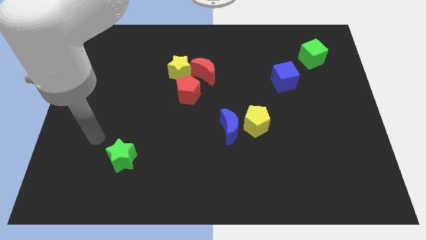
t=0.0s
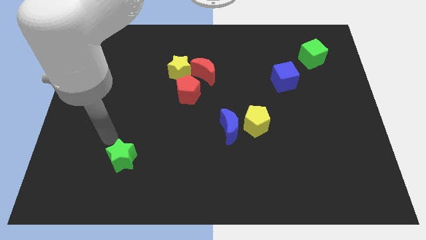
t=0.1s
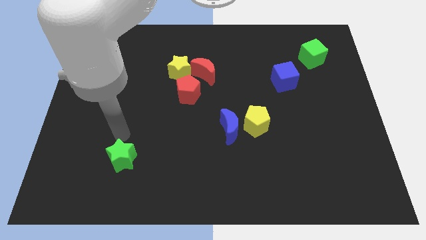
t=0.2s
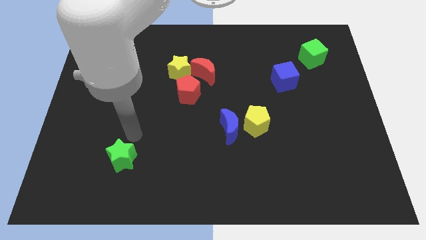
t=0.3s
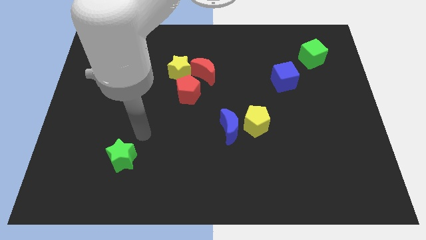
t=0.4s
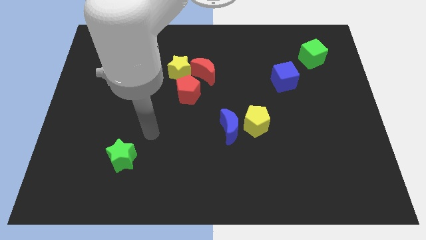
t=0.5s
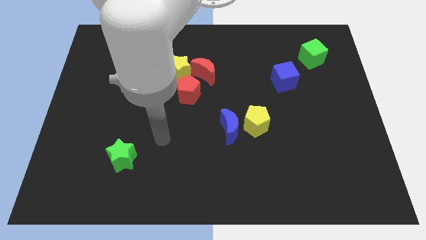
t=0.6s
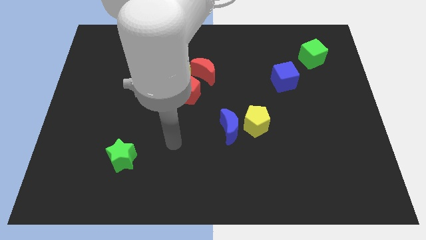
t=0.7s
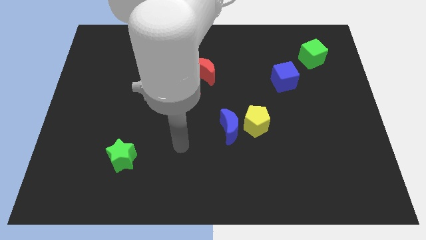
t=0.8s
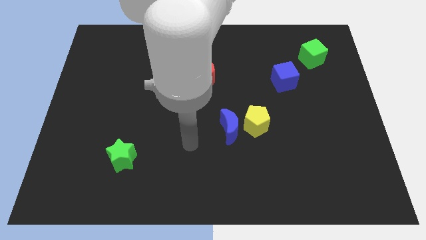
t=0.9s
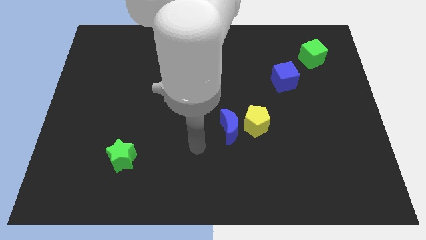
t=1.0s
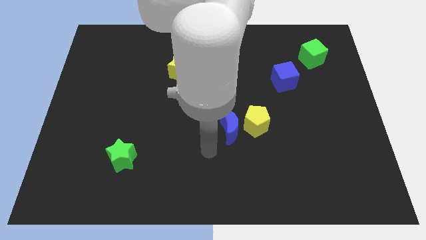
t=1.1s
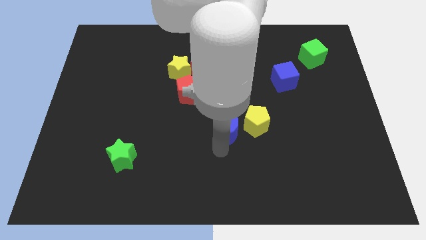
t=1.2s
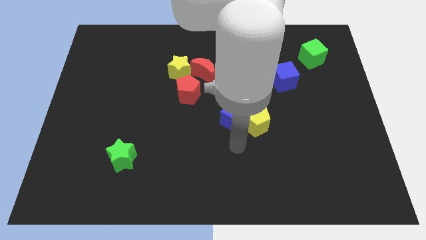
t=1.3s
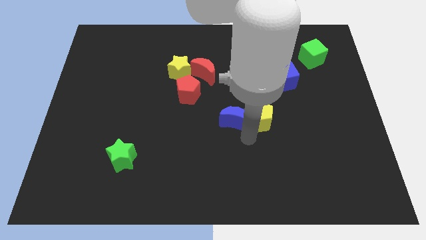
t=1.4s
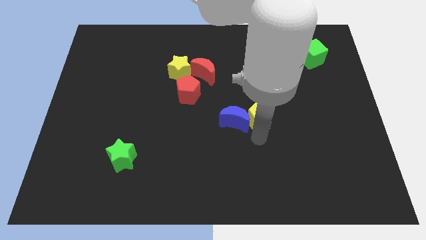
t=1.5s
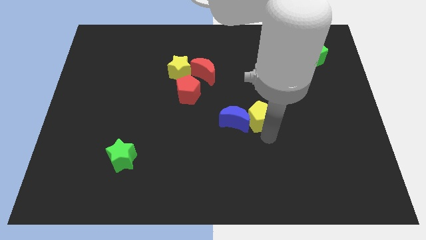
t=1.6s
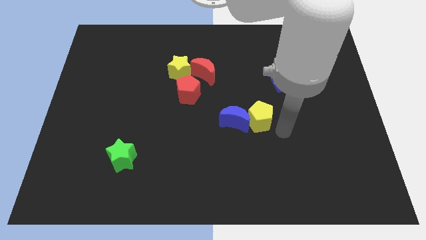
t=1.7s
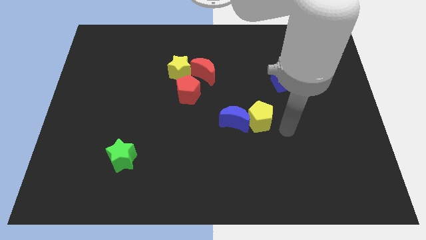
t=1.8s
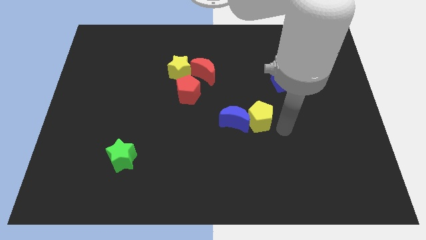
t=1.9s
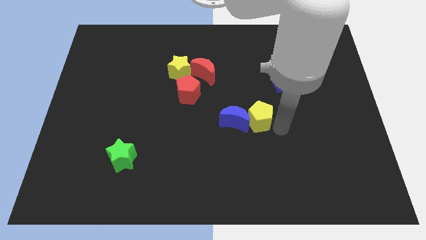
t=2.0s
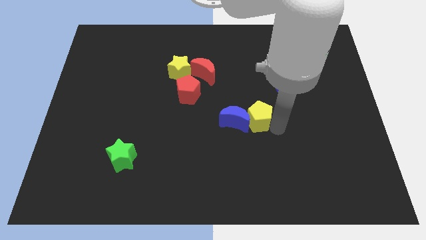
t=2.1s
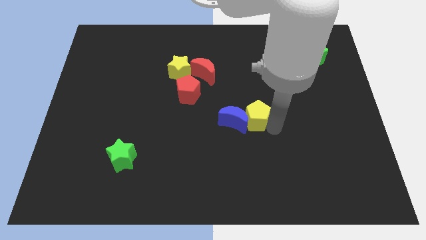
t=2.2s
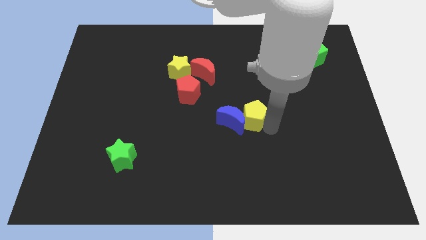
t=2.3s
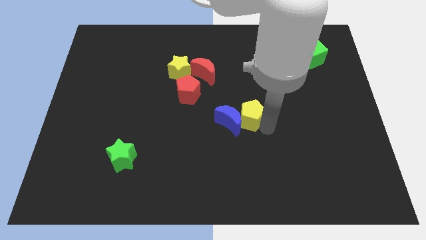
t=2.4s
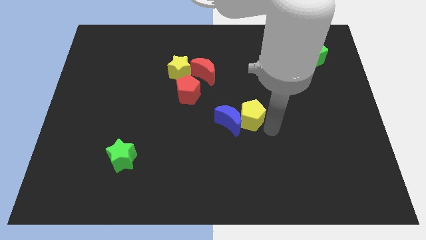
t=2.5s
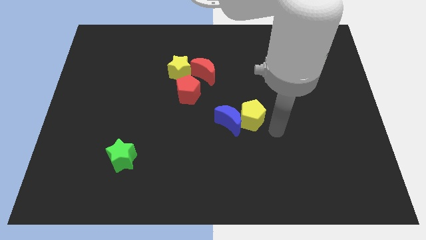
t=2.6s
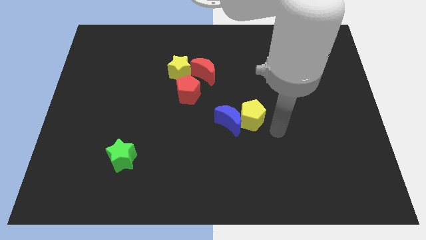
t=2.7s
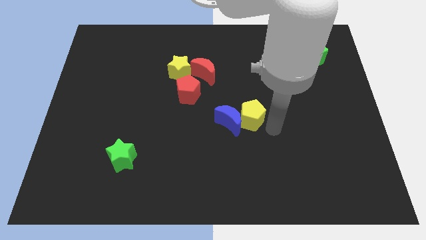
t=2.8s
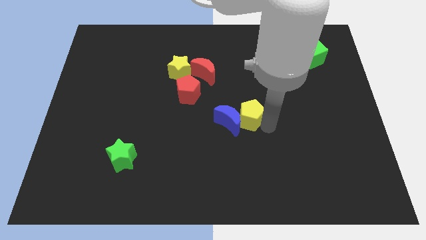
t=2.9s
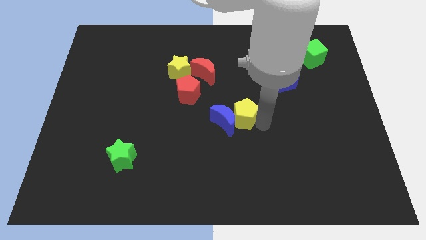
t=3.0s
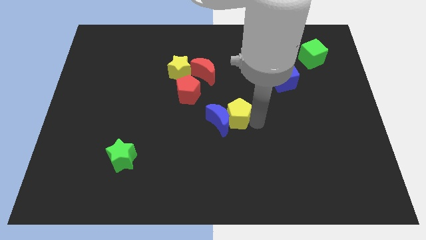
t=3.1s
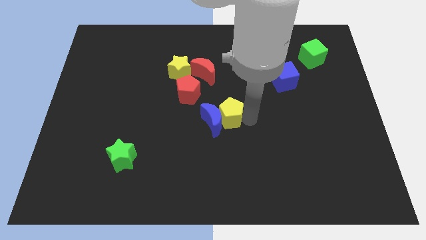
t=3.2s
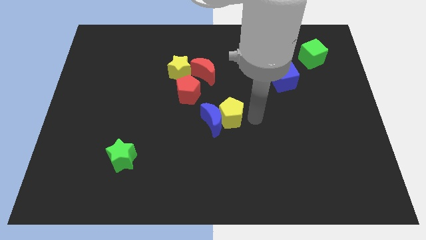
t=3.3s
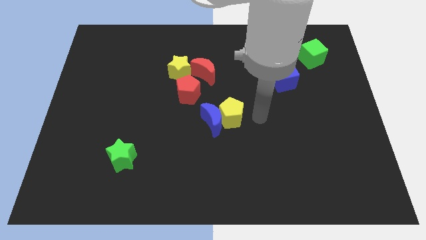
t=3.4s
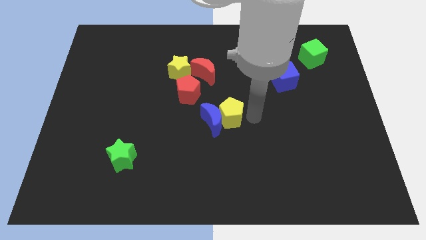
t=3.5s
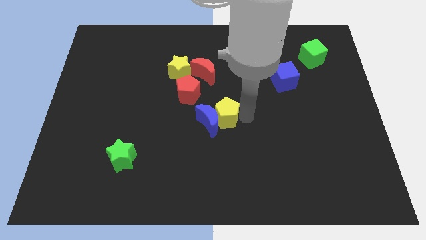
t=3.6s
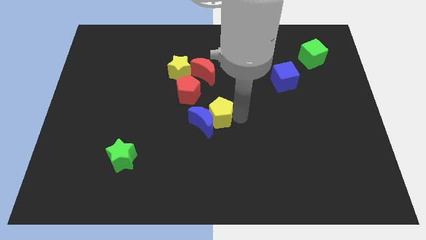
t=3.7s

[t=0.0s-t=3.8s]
move the yellow pentagon left somewhat

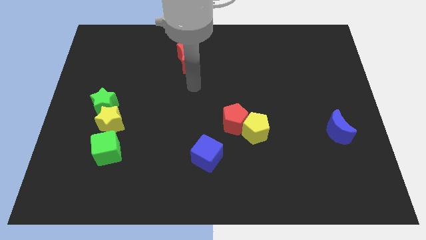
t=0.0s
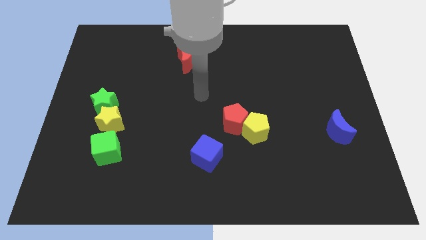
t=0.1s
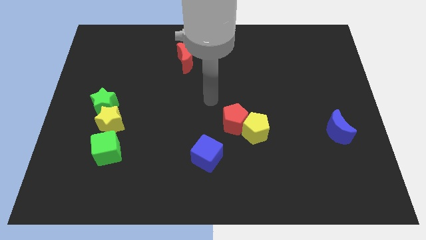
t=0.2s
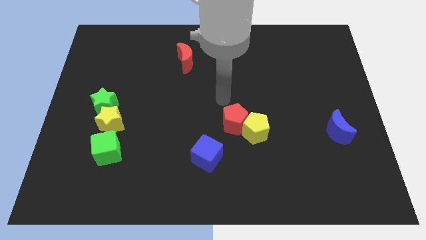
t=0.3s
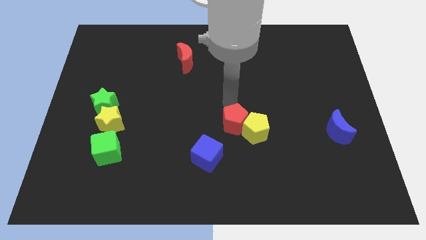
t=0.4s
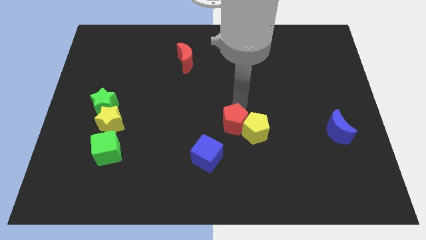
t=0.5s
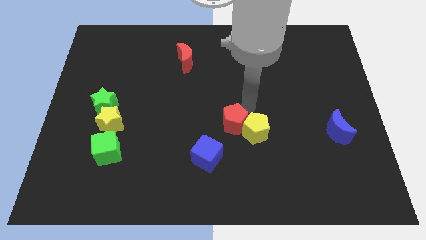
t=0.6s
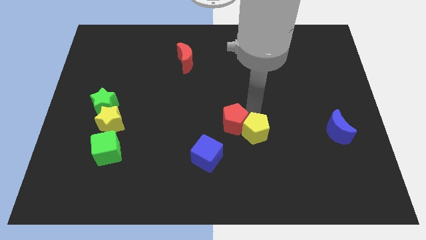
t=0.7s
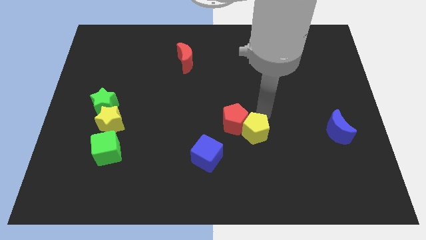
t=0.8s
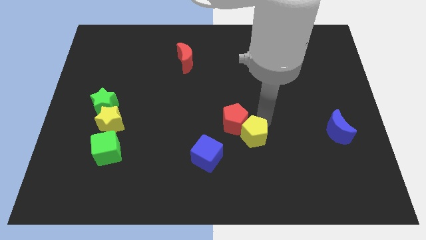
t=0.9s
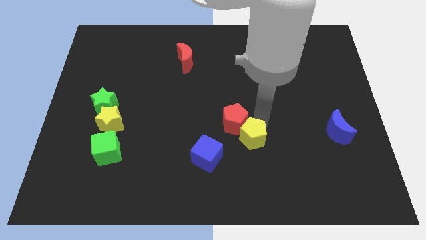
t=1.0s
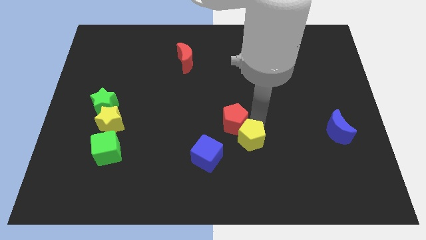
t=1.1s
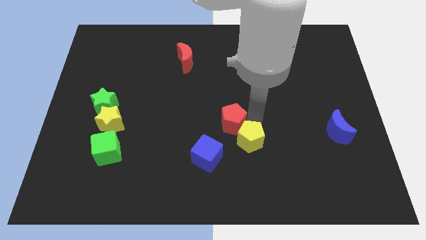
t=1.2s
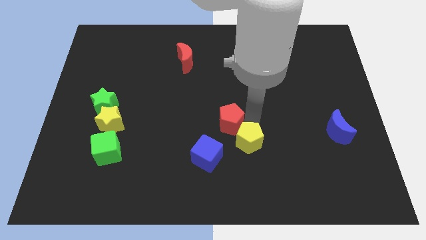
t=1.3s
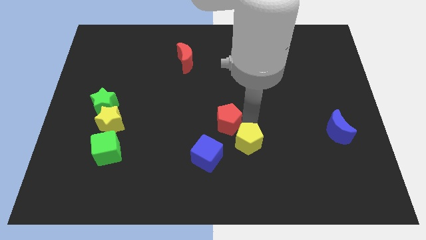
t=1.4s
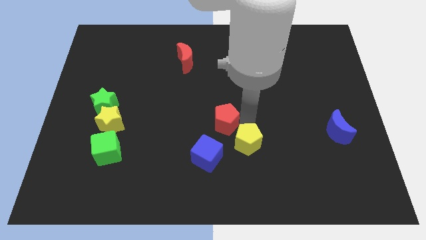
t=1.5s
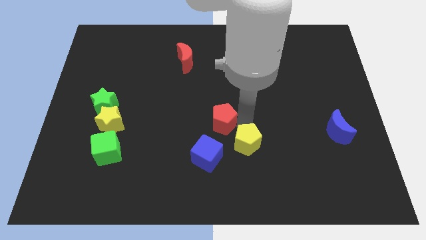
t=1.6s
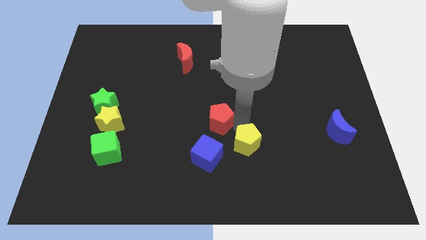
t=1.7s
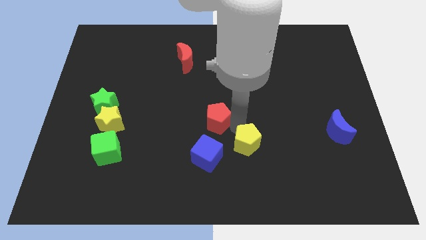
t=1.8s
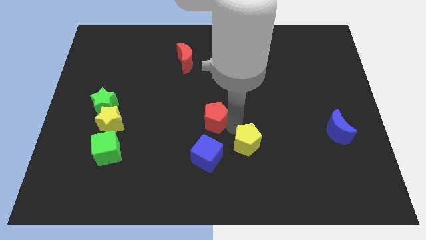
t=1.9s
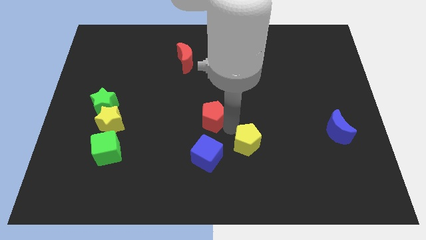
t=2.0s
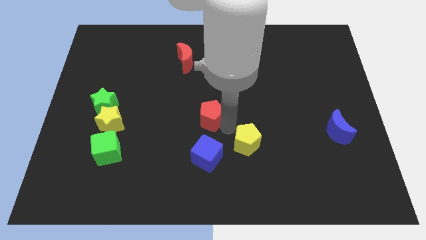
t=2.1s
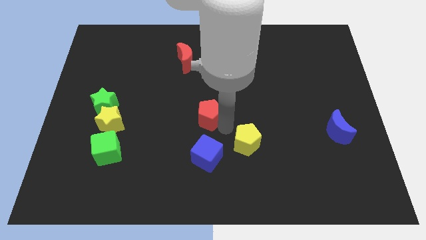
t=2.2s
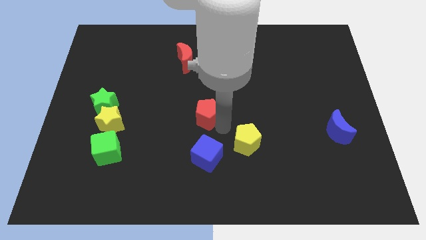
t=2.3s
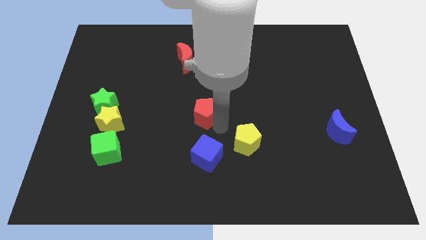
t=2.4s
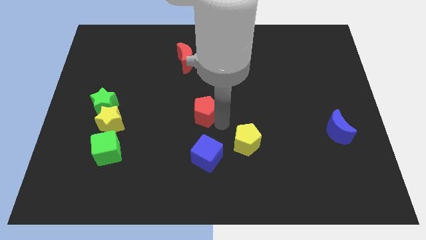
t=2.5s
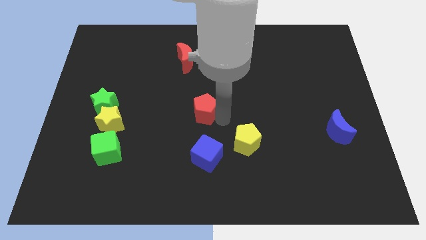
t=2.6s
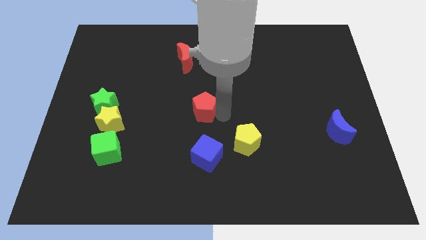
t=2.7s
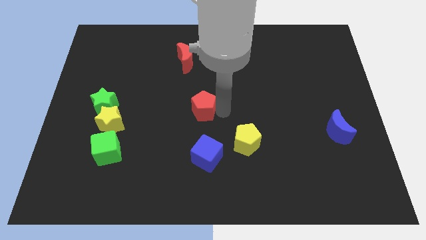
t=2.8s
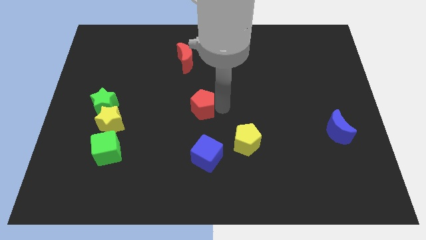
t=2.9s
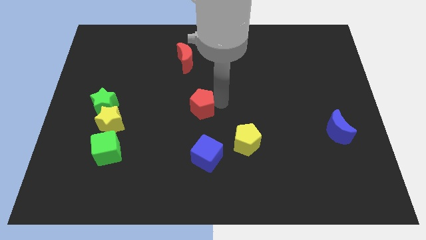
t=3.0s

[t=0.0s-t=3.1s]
slightly move the red pentagon left

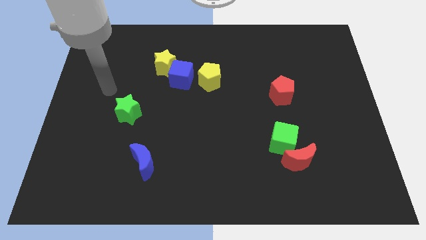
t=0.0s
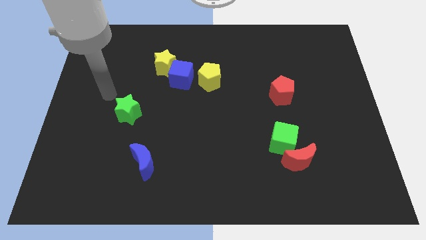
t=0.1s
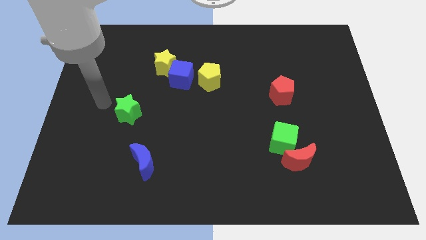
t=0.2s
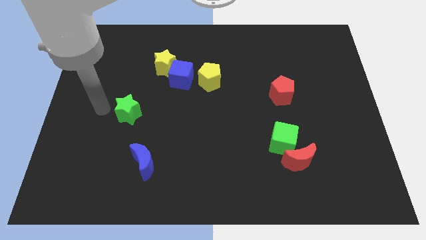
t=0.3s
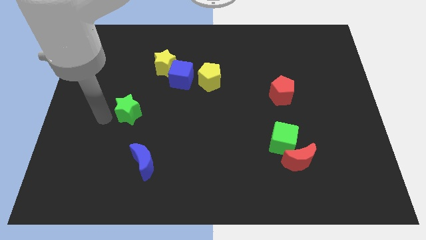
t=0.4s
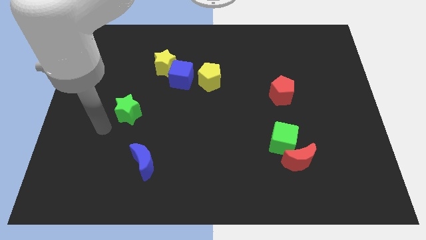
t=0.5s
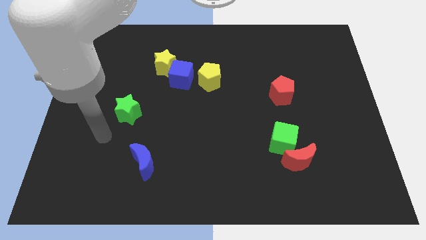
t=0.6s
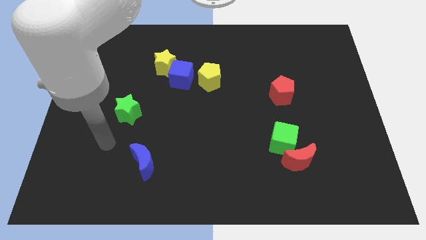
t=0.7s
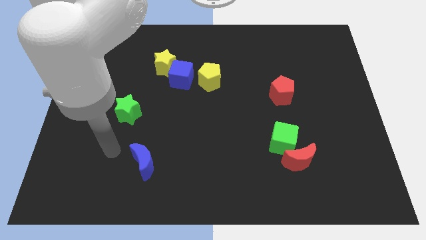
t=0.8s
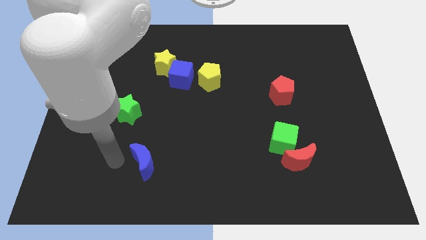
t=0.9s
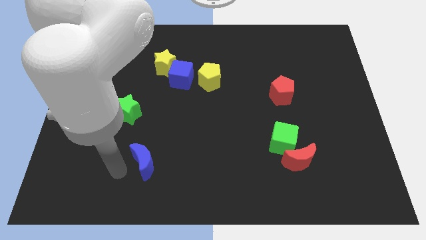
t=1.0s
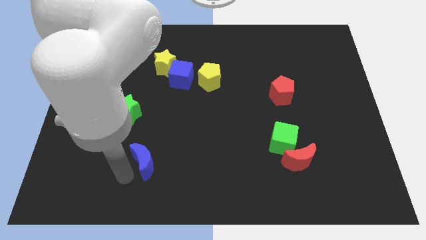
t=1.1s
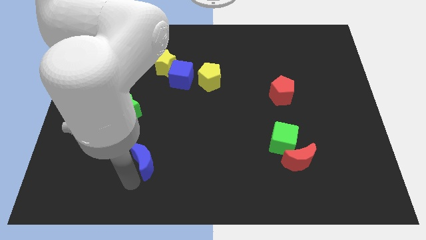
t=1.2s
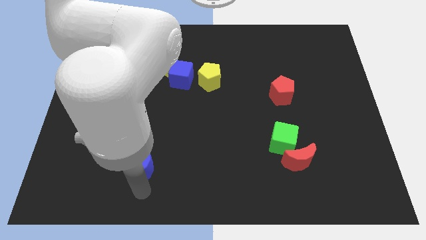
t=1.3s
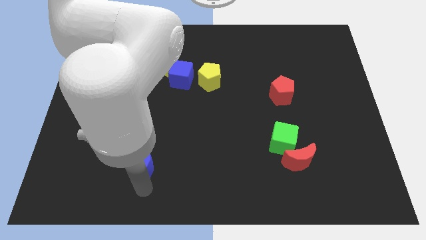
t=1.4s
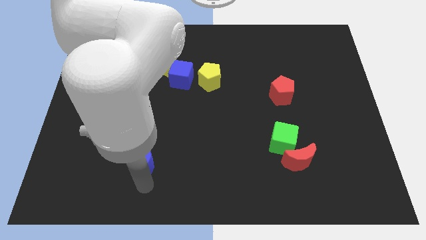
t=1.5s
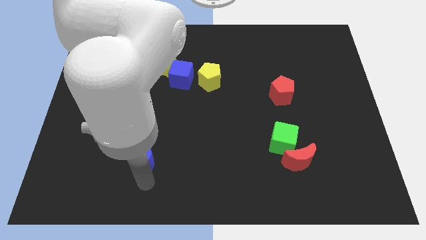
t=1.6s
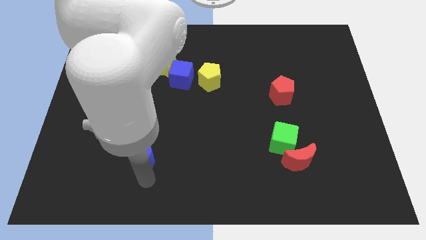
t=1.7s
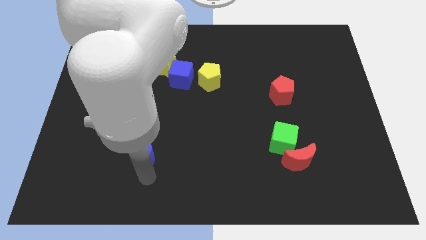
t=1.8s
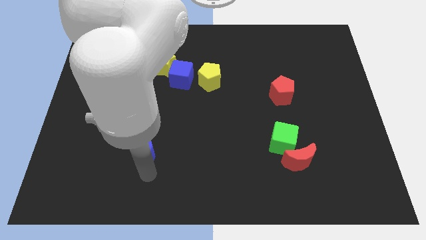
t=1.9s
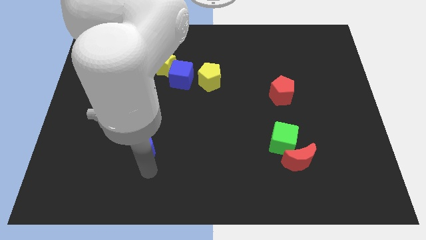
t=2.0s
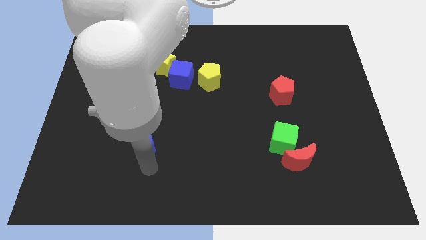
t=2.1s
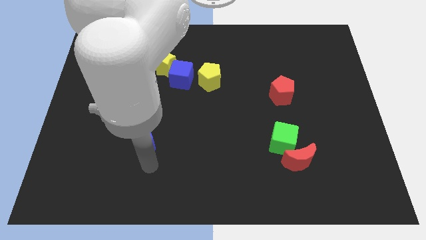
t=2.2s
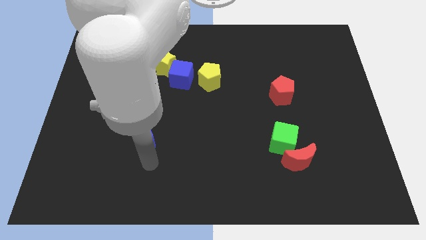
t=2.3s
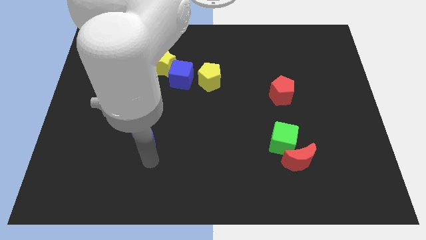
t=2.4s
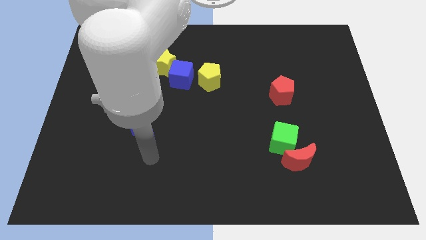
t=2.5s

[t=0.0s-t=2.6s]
slide the blue moon a bit upwards
